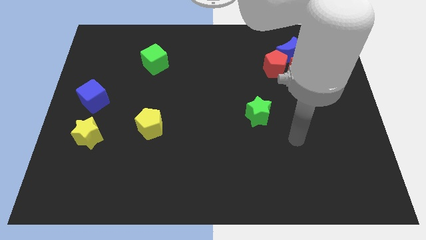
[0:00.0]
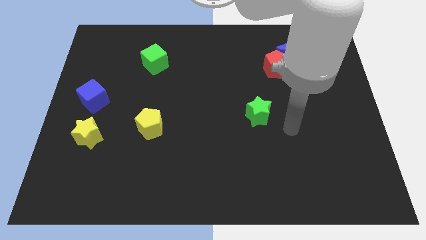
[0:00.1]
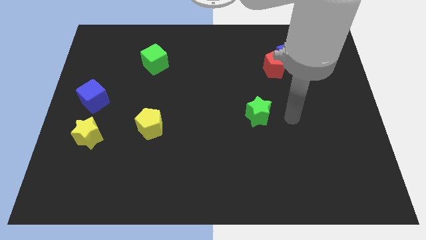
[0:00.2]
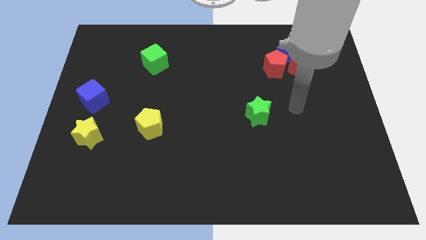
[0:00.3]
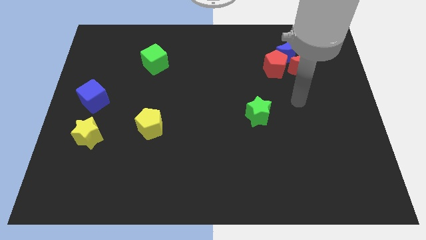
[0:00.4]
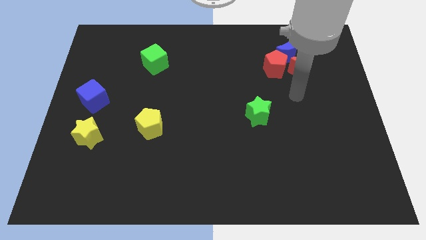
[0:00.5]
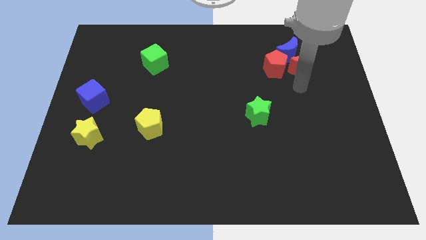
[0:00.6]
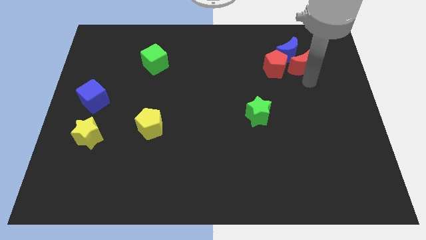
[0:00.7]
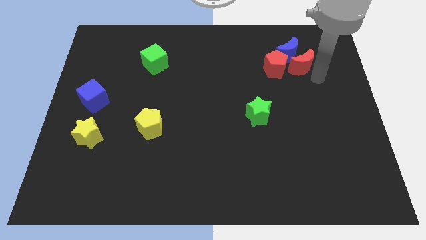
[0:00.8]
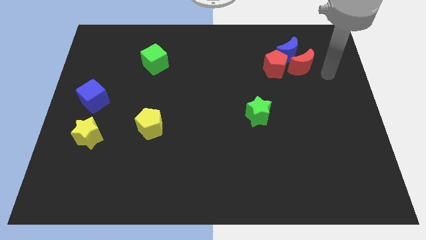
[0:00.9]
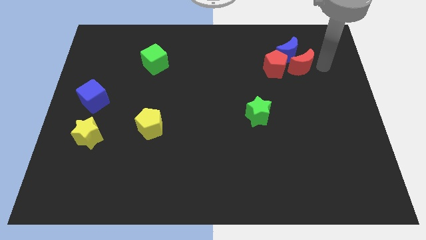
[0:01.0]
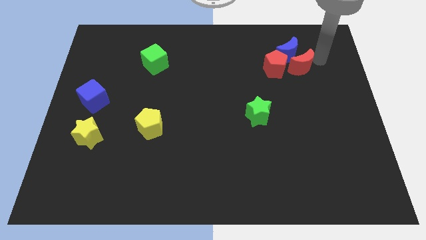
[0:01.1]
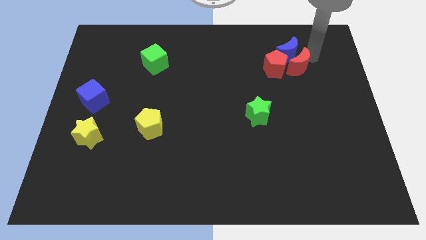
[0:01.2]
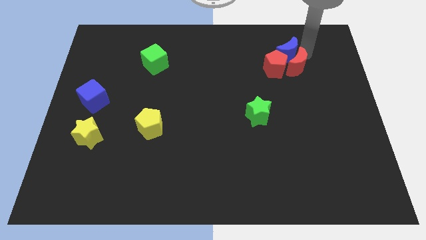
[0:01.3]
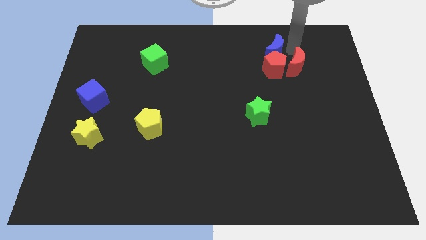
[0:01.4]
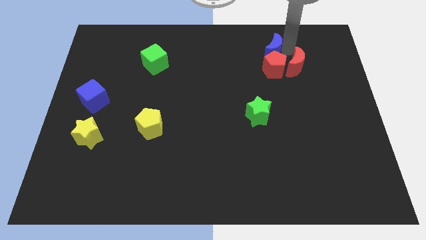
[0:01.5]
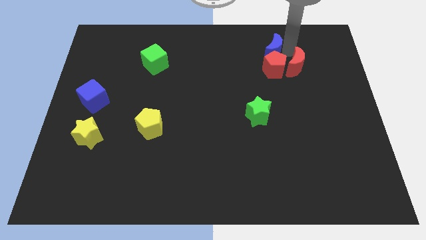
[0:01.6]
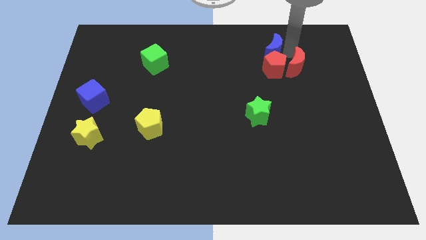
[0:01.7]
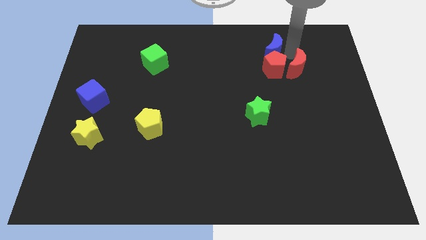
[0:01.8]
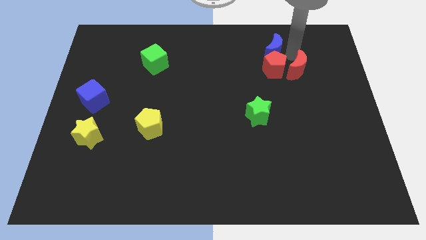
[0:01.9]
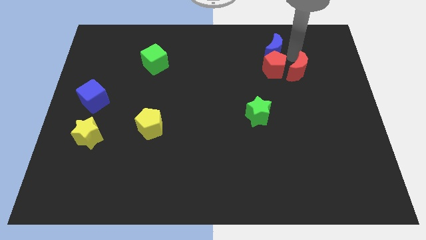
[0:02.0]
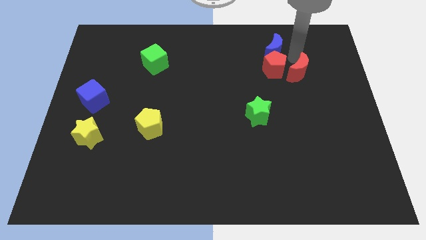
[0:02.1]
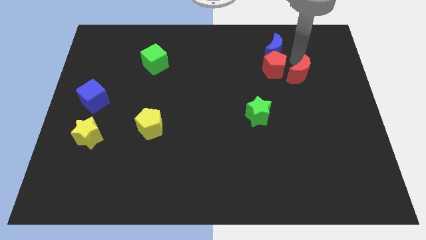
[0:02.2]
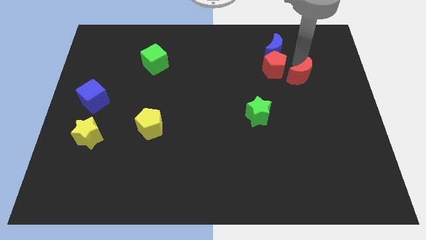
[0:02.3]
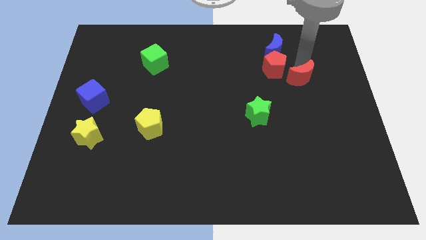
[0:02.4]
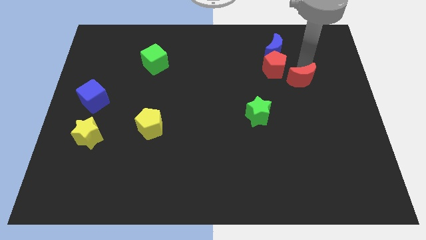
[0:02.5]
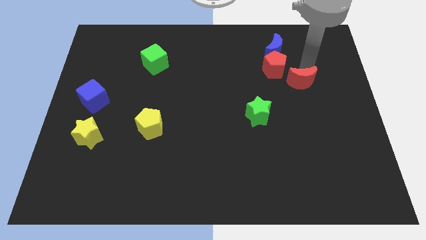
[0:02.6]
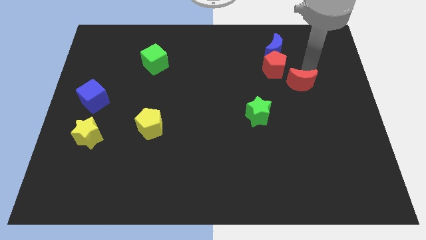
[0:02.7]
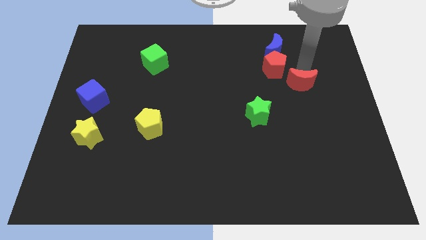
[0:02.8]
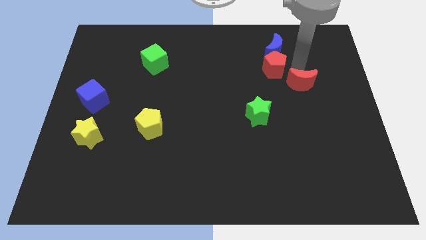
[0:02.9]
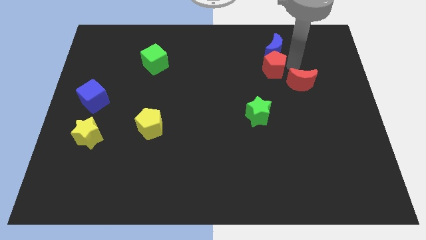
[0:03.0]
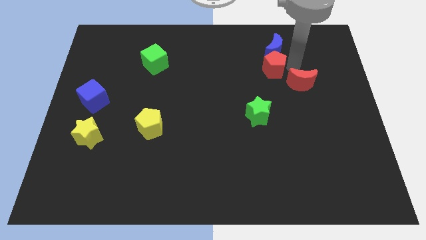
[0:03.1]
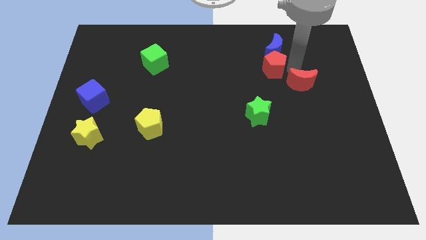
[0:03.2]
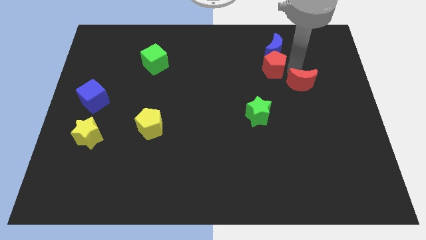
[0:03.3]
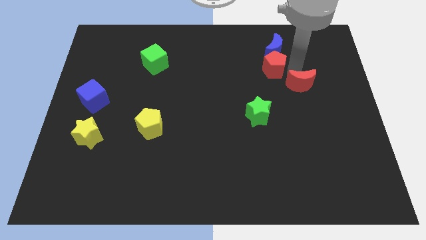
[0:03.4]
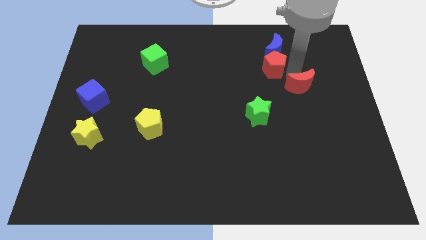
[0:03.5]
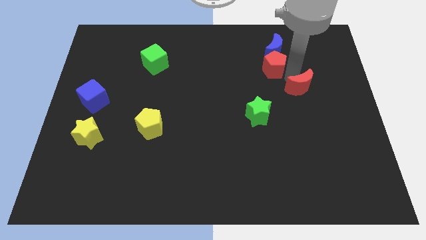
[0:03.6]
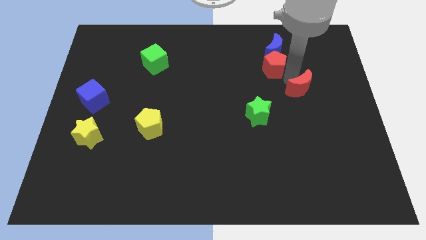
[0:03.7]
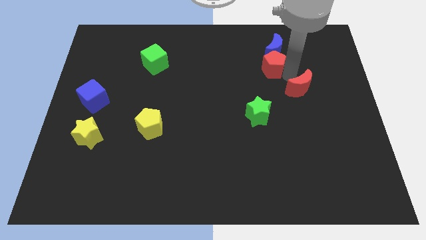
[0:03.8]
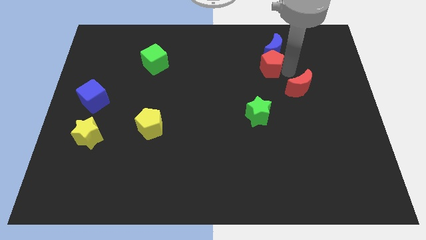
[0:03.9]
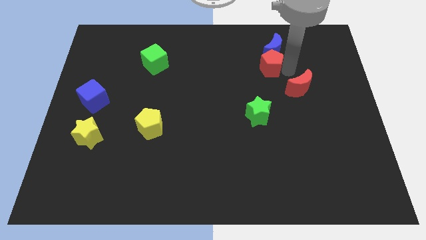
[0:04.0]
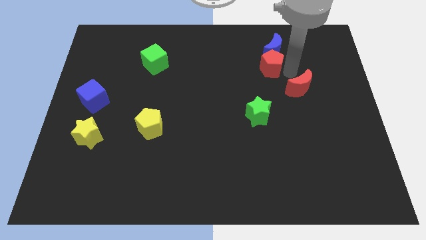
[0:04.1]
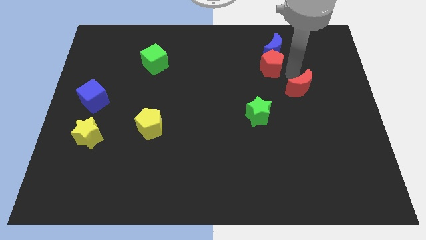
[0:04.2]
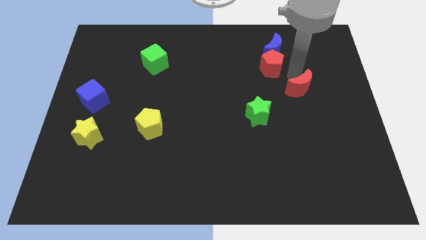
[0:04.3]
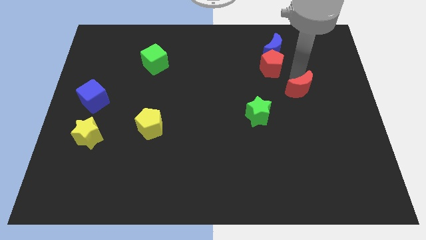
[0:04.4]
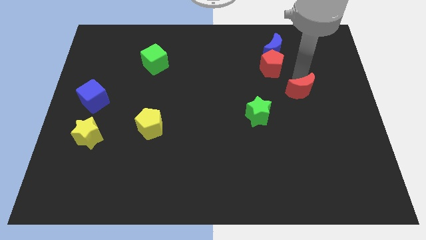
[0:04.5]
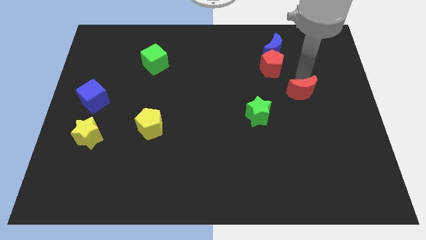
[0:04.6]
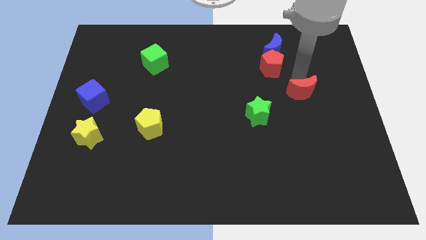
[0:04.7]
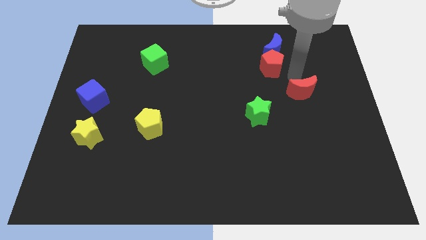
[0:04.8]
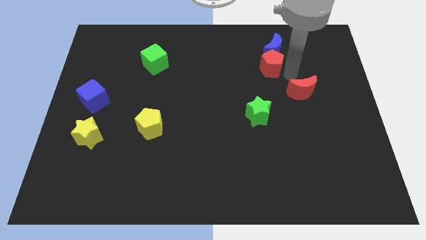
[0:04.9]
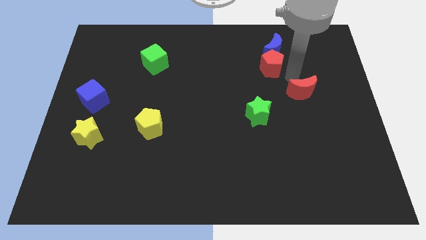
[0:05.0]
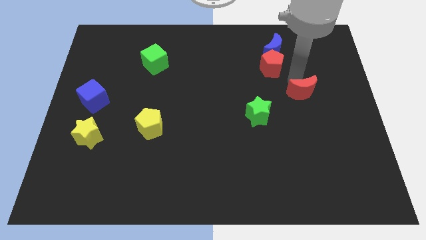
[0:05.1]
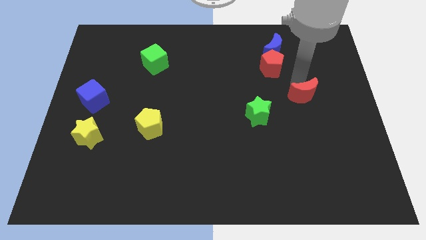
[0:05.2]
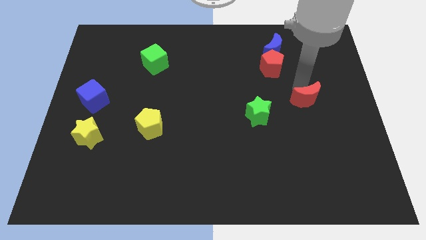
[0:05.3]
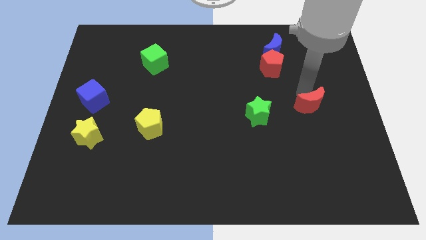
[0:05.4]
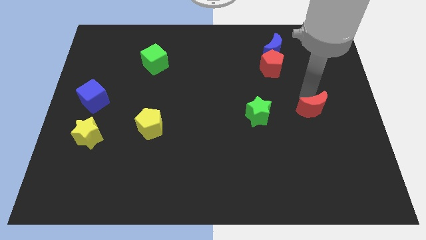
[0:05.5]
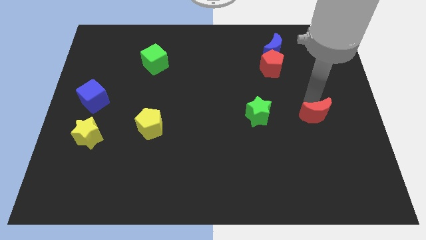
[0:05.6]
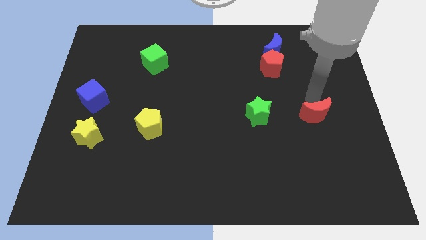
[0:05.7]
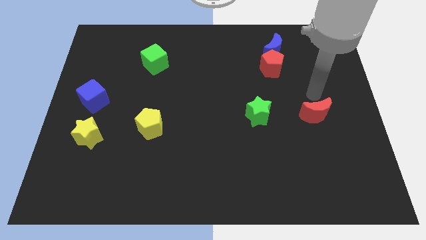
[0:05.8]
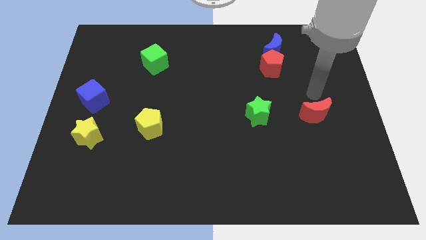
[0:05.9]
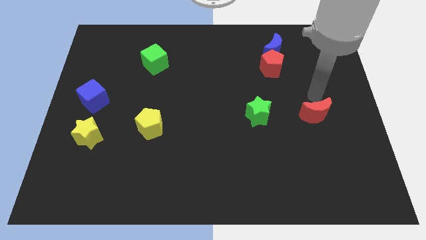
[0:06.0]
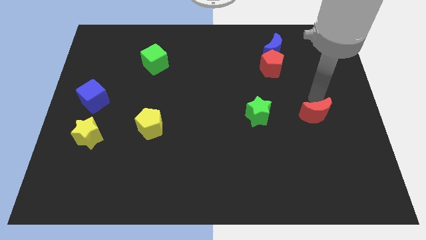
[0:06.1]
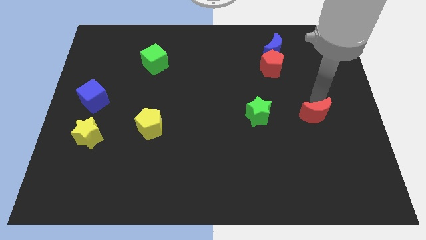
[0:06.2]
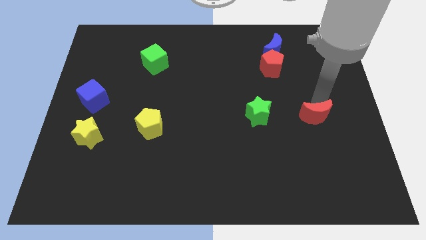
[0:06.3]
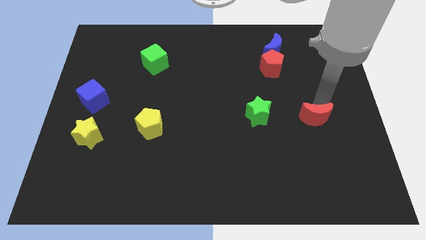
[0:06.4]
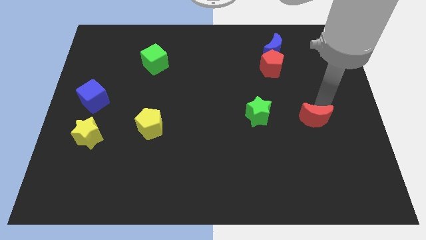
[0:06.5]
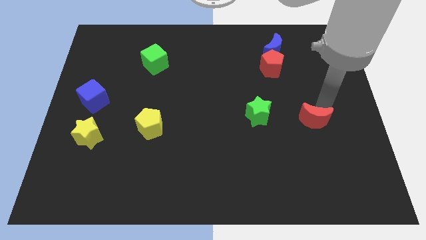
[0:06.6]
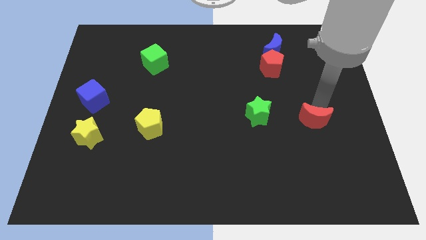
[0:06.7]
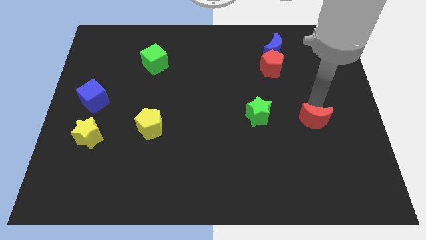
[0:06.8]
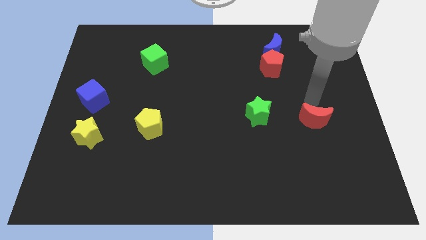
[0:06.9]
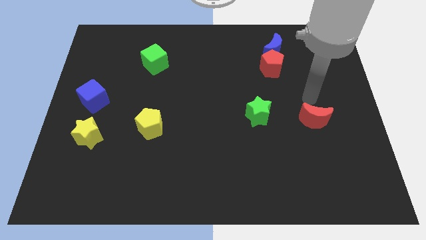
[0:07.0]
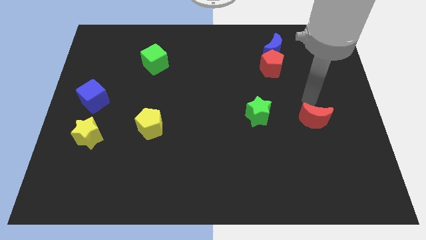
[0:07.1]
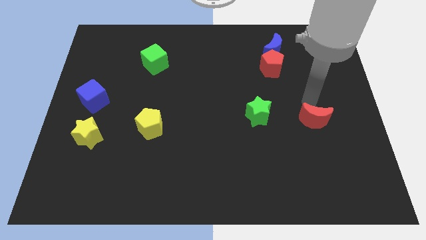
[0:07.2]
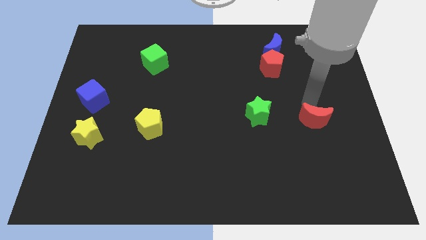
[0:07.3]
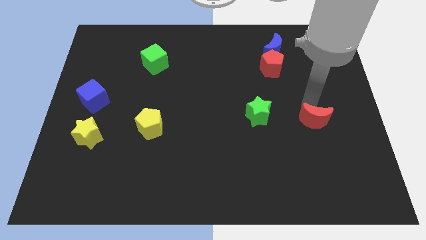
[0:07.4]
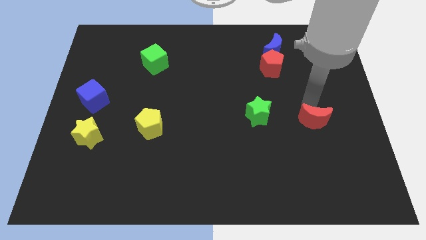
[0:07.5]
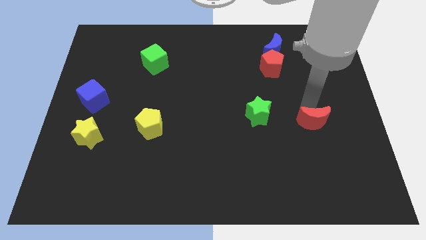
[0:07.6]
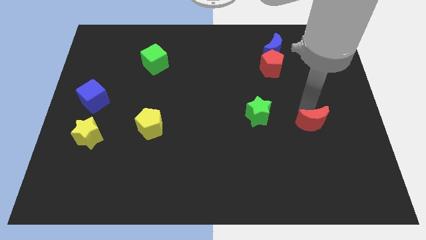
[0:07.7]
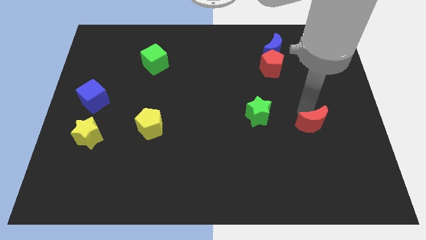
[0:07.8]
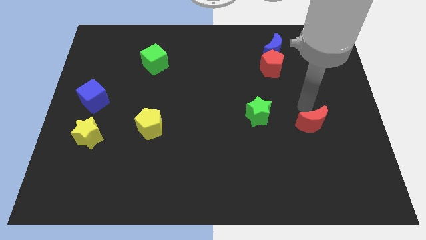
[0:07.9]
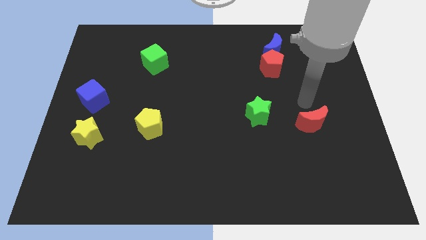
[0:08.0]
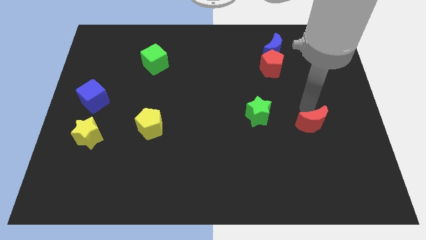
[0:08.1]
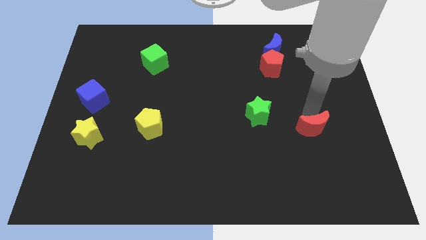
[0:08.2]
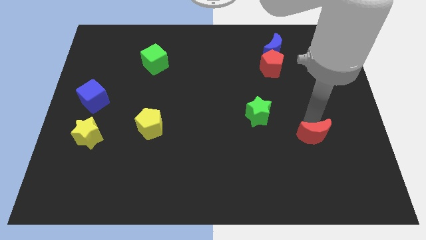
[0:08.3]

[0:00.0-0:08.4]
move the red moon down

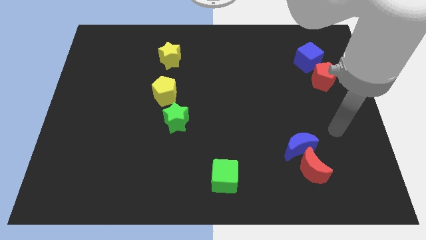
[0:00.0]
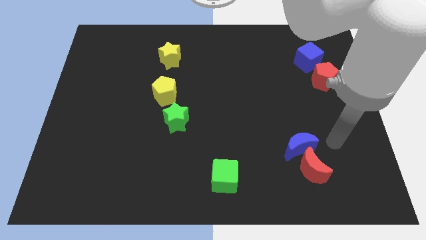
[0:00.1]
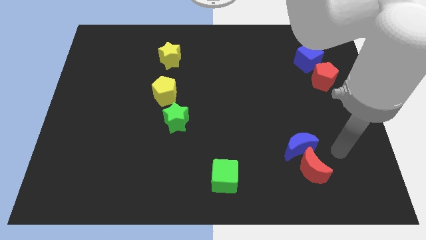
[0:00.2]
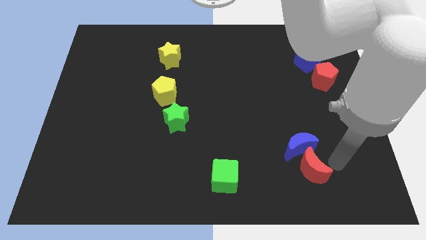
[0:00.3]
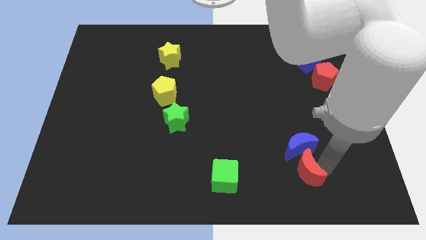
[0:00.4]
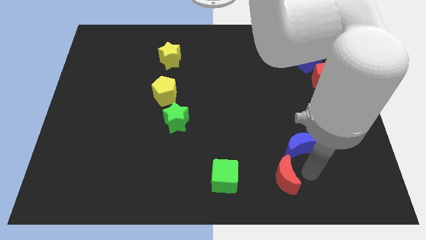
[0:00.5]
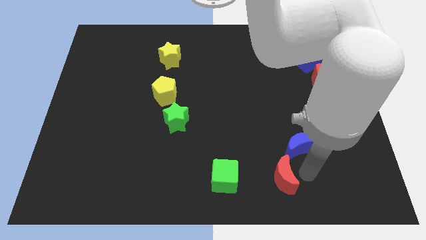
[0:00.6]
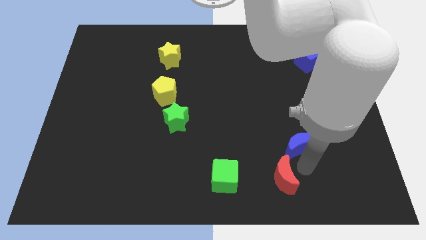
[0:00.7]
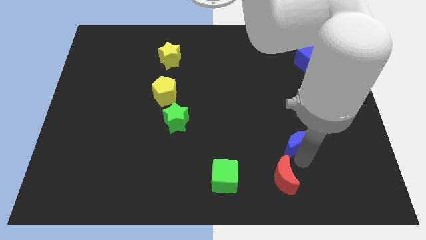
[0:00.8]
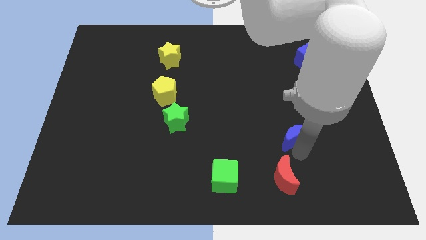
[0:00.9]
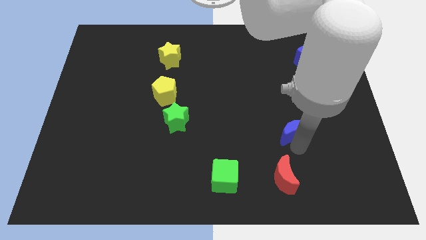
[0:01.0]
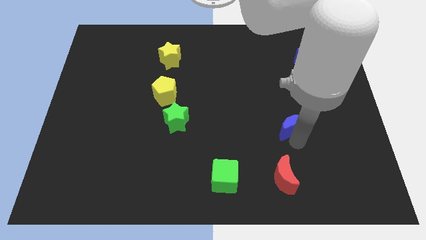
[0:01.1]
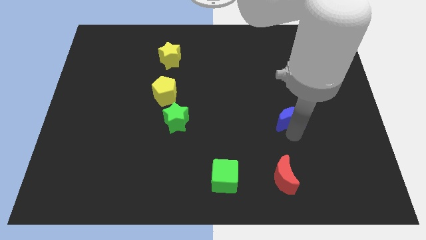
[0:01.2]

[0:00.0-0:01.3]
slightly slide the blue moon upwards
